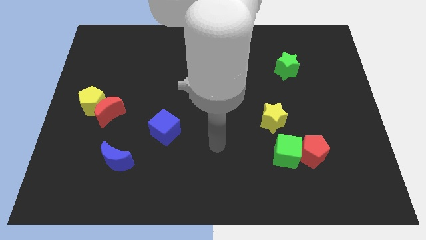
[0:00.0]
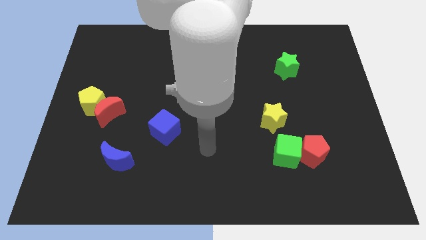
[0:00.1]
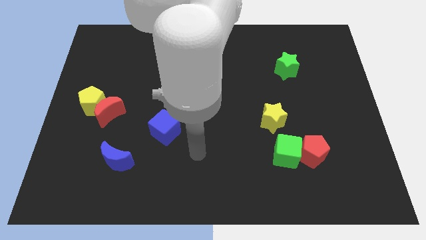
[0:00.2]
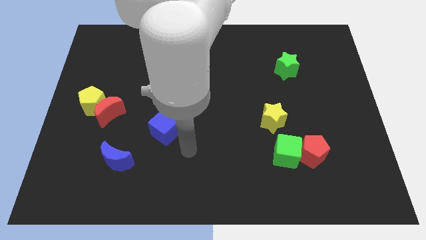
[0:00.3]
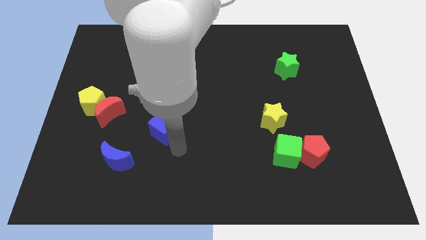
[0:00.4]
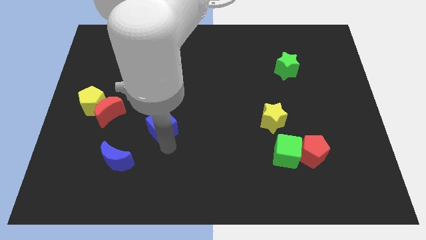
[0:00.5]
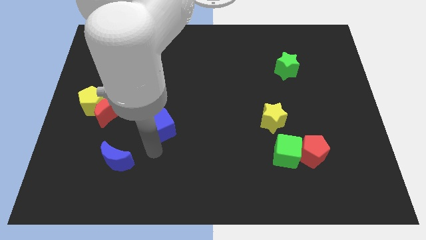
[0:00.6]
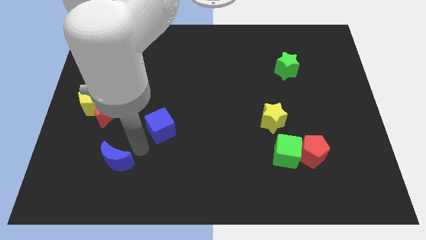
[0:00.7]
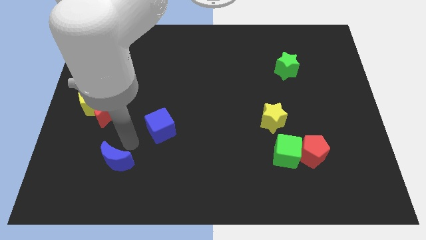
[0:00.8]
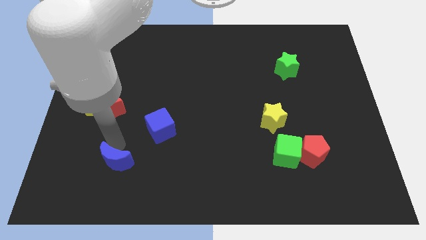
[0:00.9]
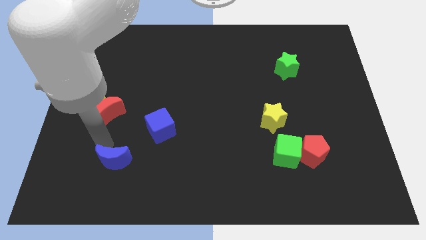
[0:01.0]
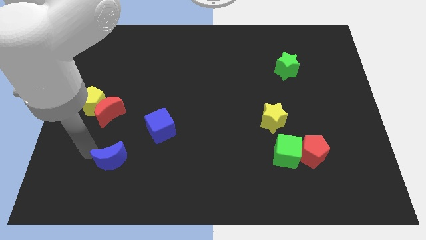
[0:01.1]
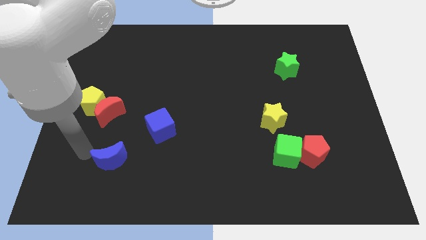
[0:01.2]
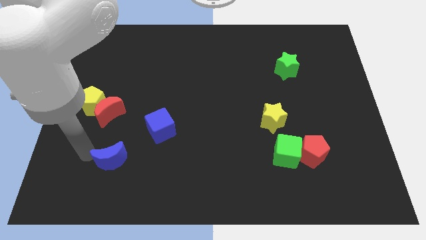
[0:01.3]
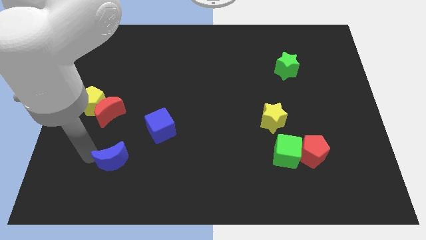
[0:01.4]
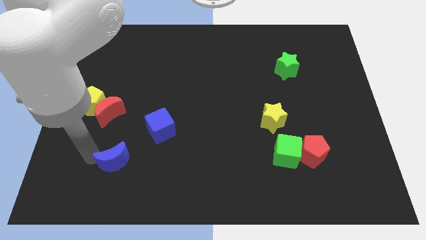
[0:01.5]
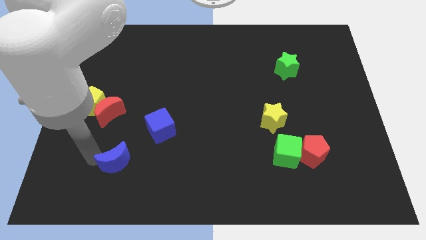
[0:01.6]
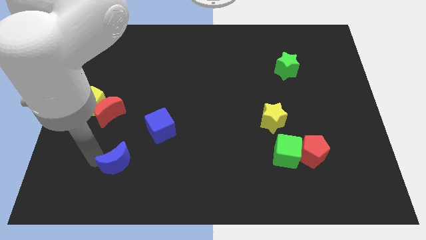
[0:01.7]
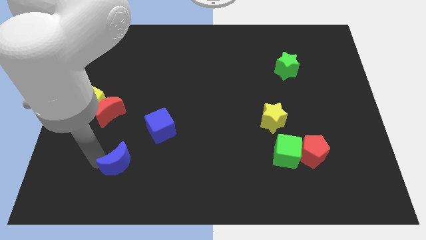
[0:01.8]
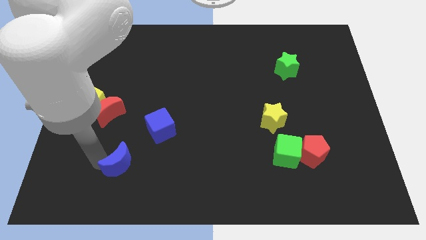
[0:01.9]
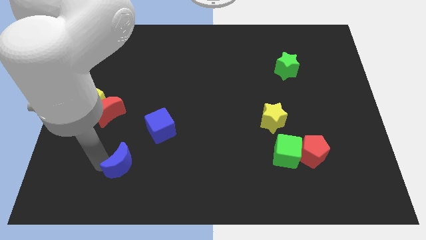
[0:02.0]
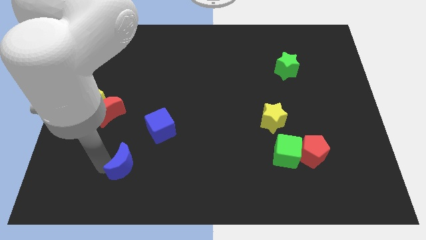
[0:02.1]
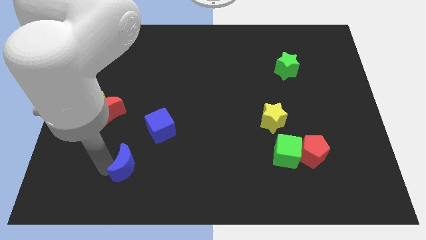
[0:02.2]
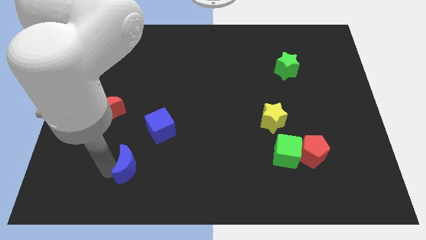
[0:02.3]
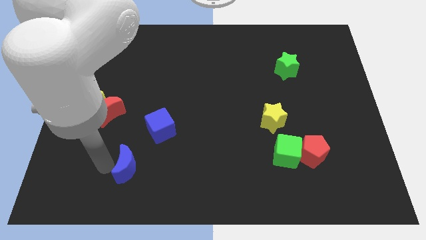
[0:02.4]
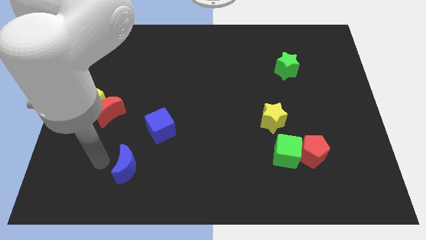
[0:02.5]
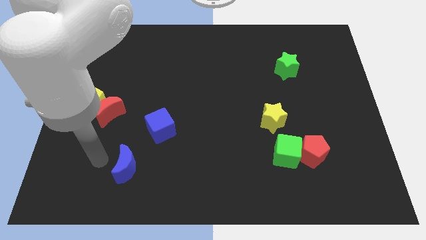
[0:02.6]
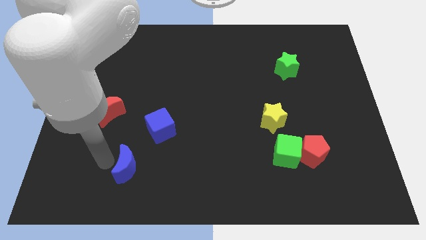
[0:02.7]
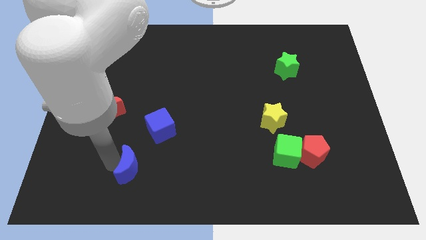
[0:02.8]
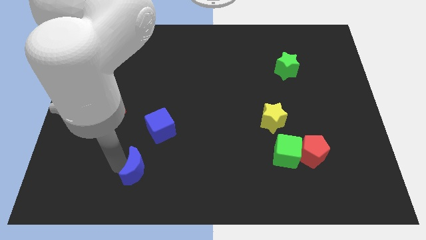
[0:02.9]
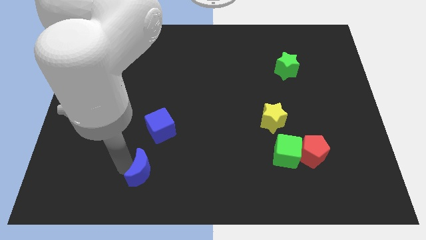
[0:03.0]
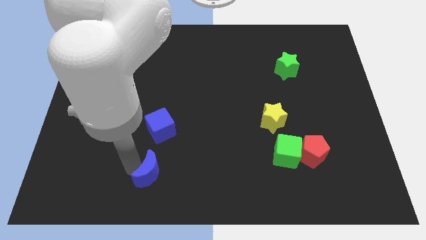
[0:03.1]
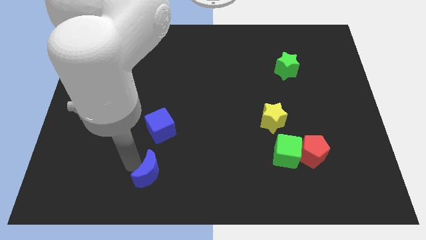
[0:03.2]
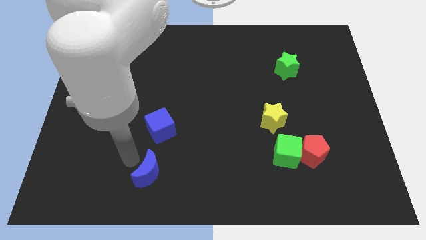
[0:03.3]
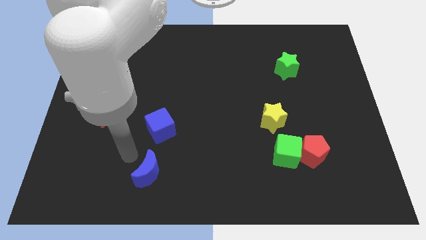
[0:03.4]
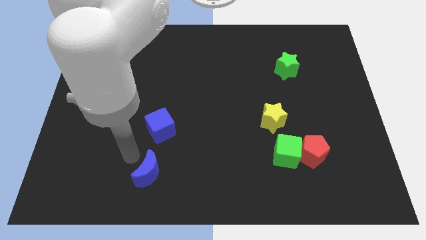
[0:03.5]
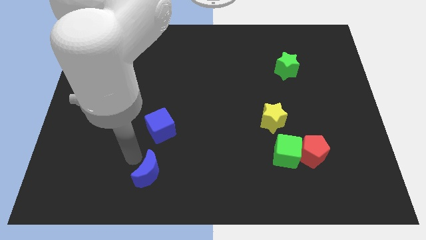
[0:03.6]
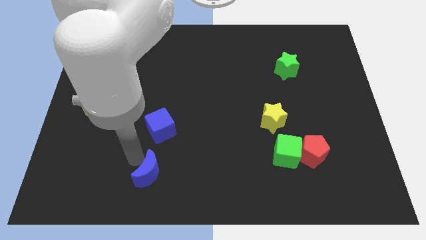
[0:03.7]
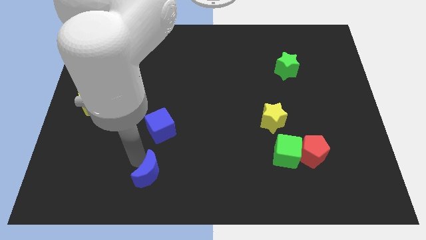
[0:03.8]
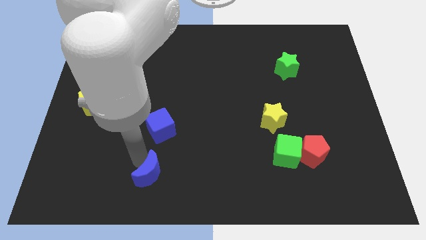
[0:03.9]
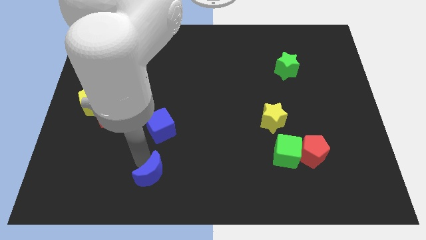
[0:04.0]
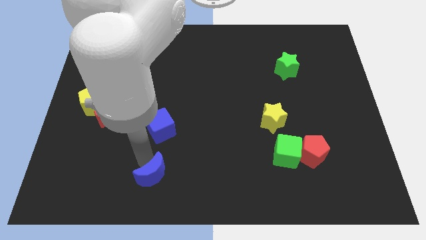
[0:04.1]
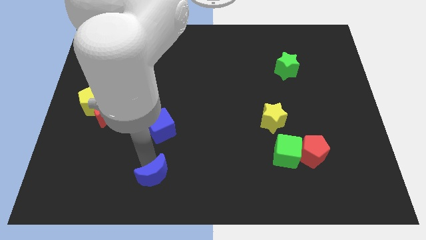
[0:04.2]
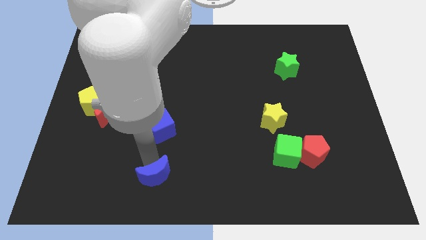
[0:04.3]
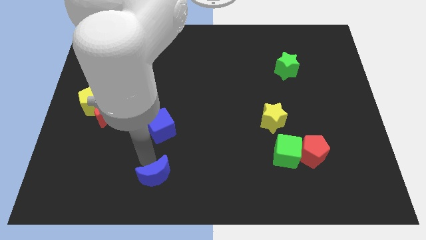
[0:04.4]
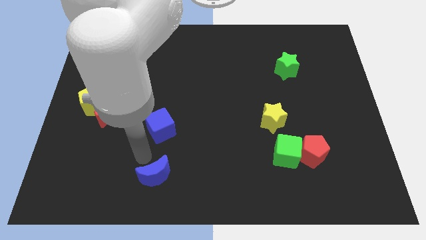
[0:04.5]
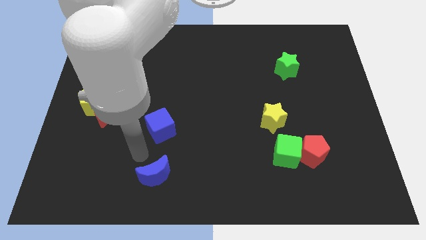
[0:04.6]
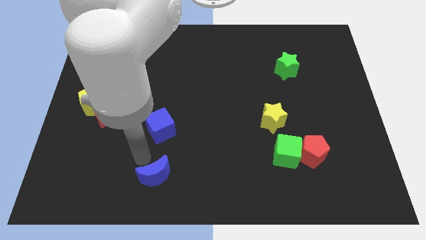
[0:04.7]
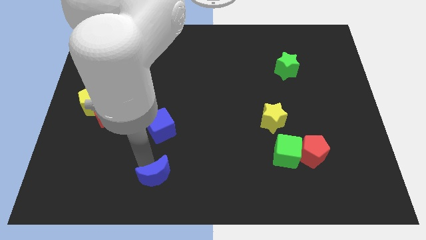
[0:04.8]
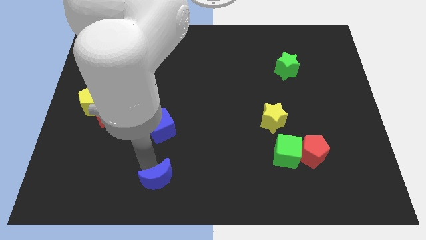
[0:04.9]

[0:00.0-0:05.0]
push the blue moon to the bottom side

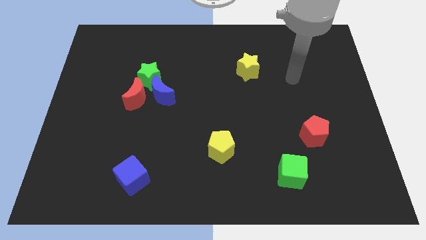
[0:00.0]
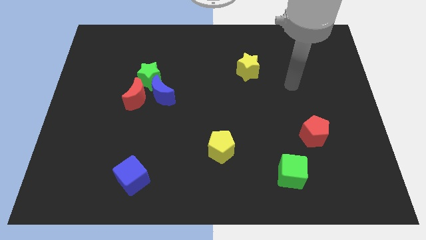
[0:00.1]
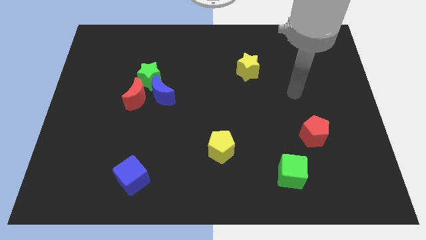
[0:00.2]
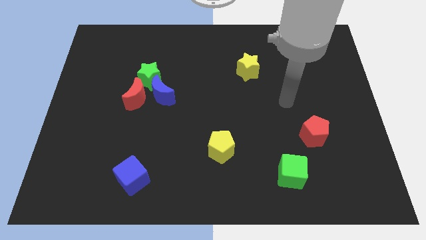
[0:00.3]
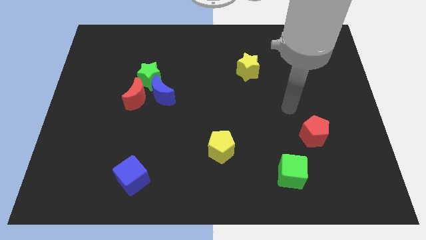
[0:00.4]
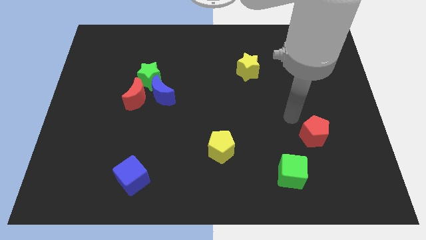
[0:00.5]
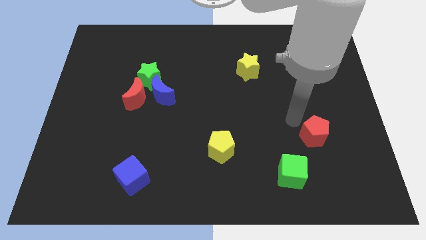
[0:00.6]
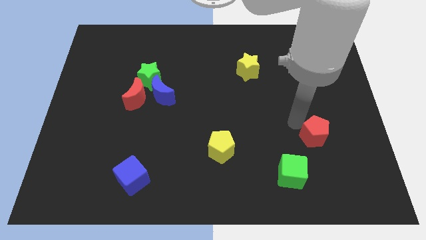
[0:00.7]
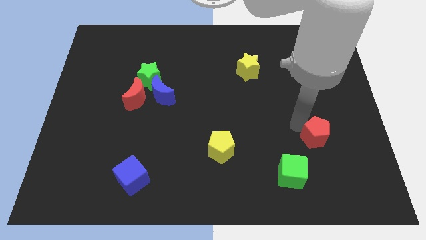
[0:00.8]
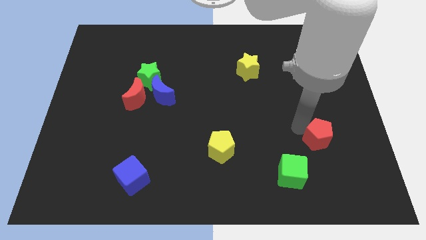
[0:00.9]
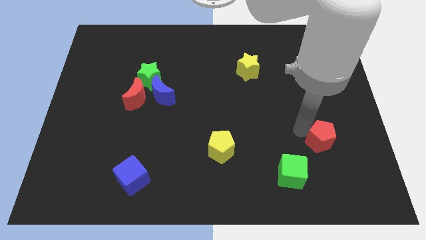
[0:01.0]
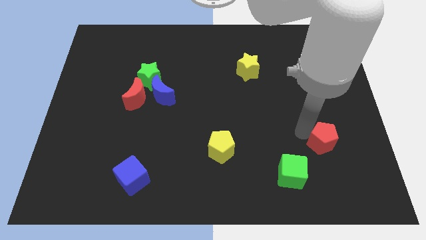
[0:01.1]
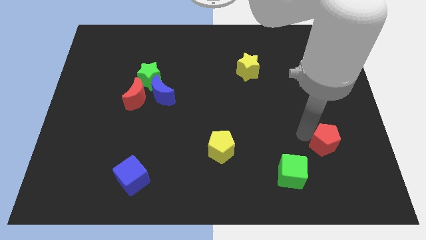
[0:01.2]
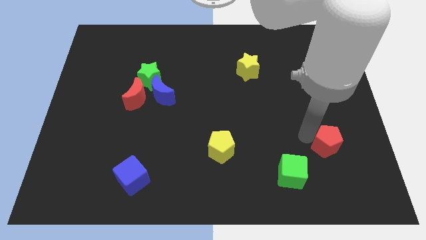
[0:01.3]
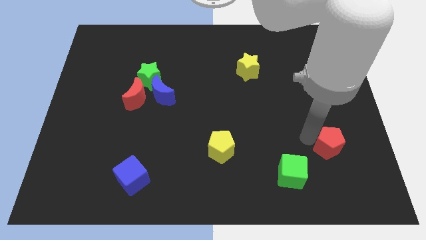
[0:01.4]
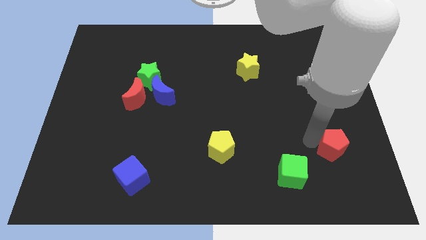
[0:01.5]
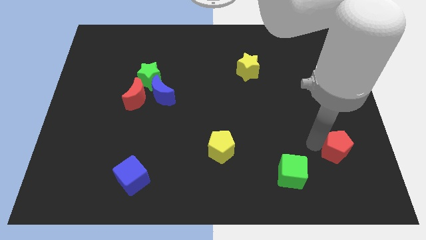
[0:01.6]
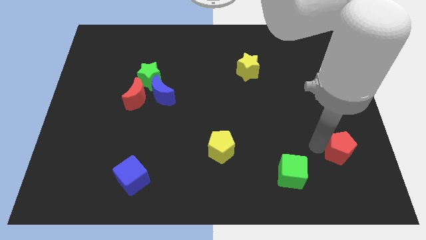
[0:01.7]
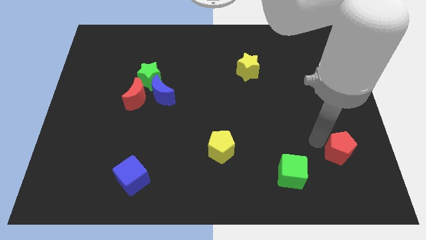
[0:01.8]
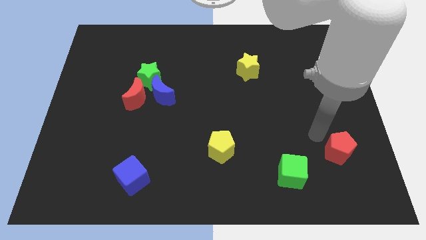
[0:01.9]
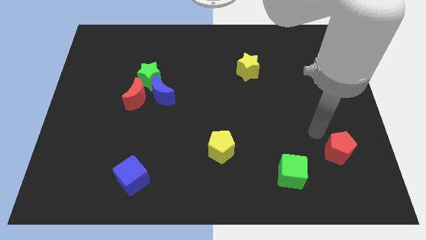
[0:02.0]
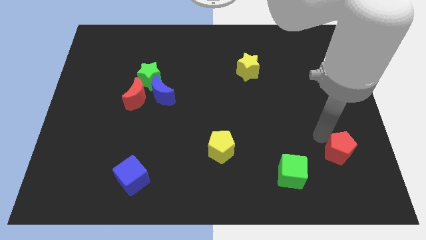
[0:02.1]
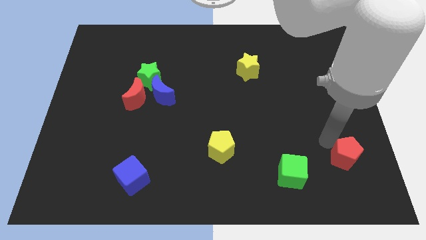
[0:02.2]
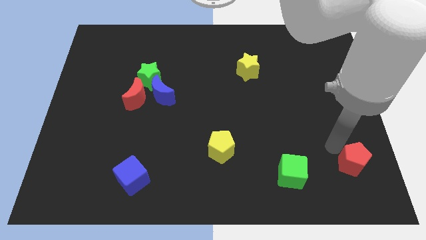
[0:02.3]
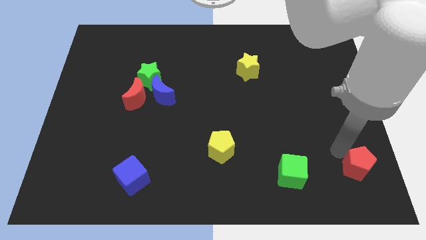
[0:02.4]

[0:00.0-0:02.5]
slide the red pentagon to the lower right corner
